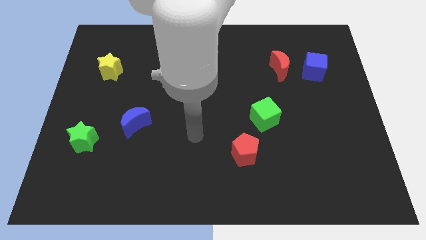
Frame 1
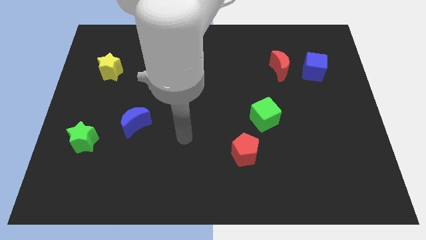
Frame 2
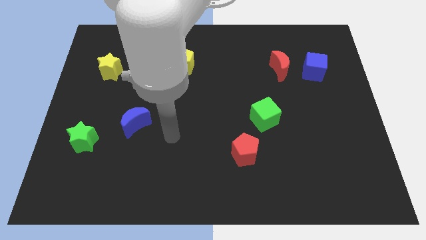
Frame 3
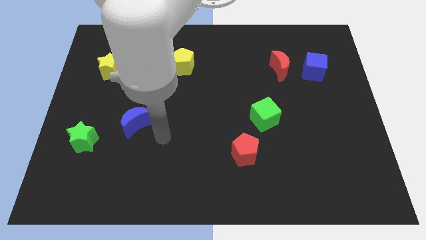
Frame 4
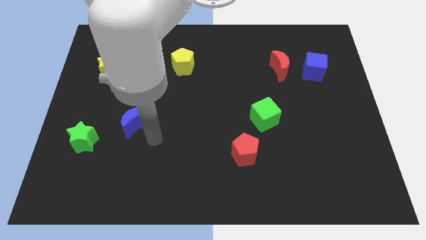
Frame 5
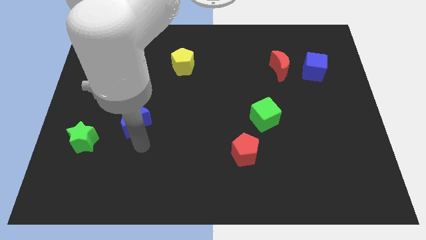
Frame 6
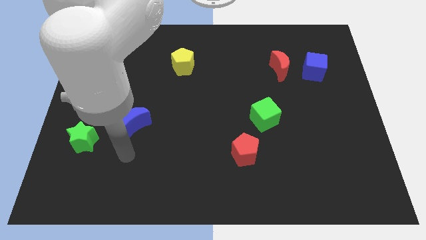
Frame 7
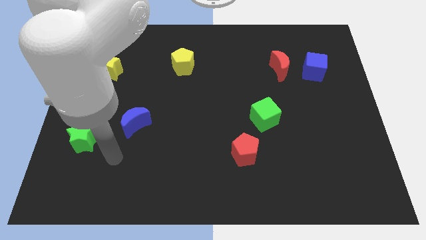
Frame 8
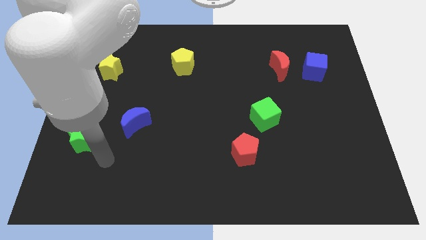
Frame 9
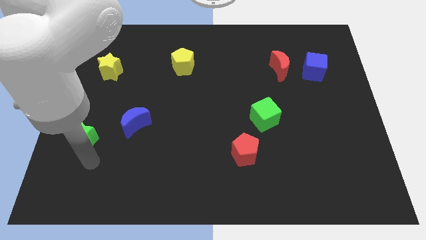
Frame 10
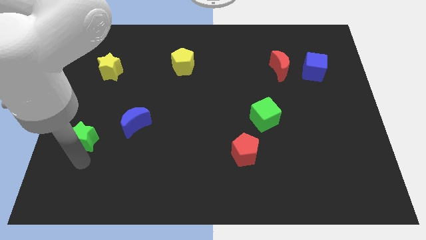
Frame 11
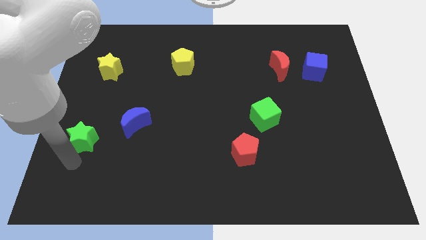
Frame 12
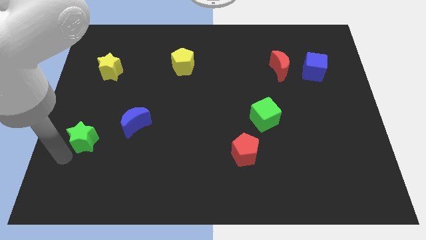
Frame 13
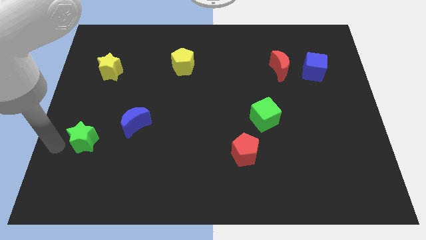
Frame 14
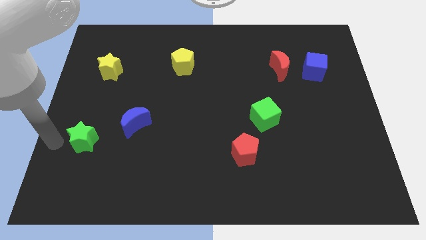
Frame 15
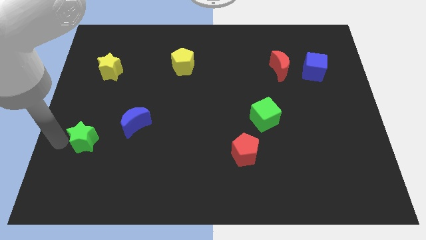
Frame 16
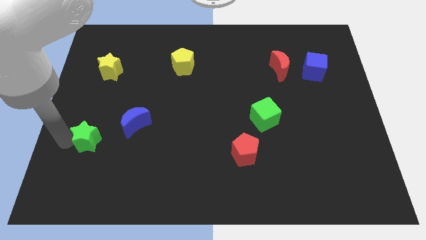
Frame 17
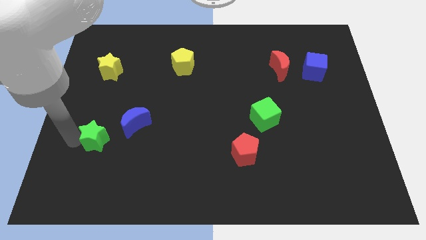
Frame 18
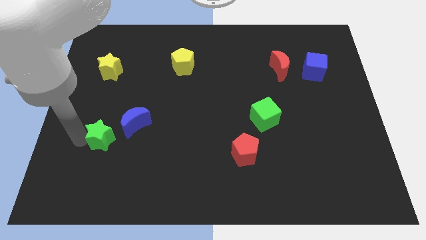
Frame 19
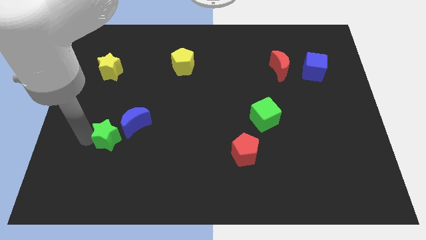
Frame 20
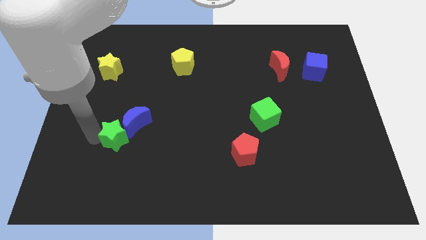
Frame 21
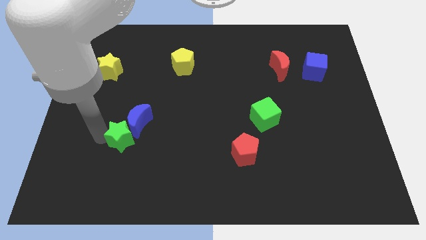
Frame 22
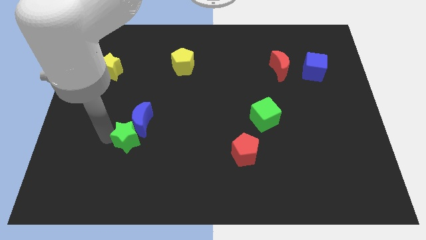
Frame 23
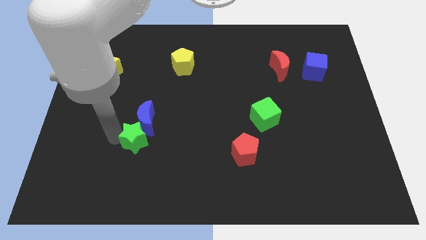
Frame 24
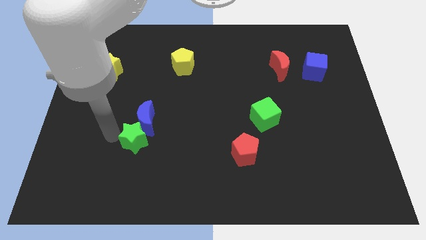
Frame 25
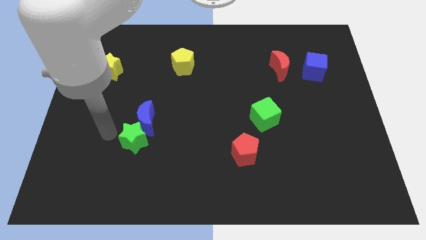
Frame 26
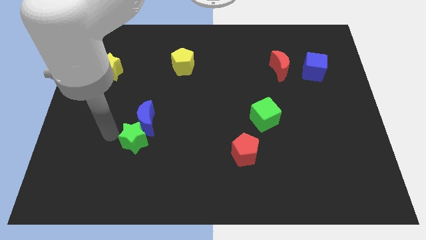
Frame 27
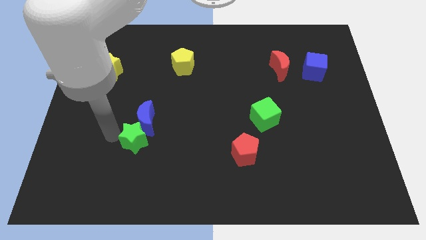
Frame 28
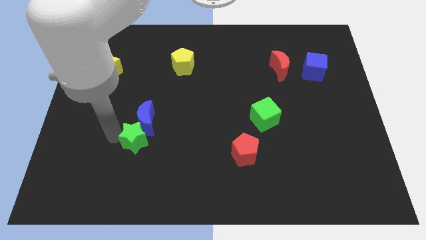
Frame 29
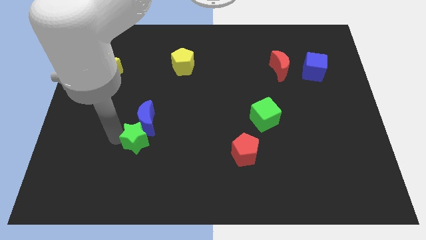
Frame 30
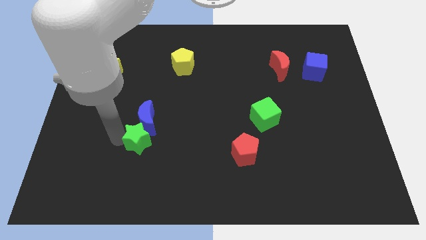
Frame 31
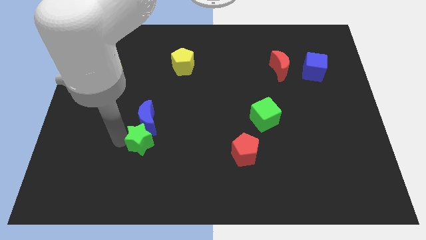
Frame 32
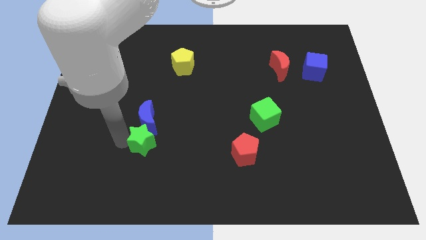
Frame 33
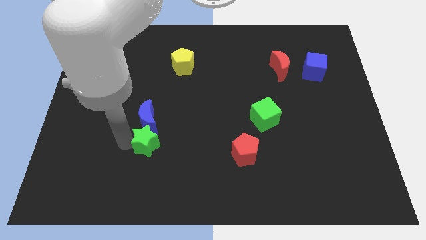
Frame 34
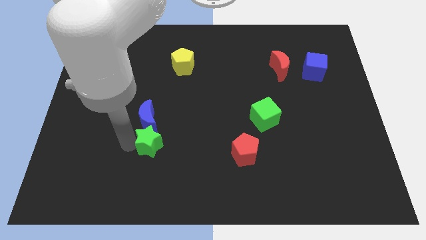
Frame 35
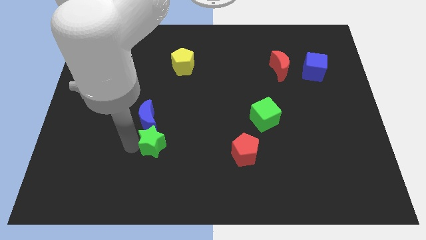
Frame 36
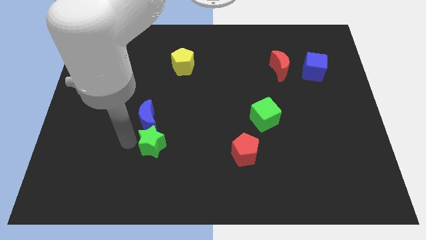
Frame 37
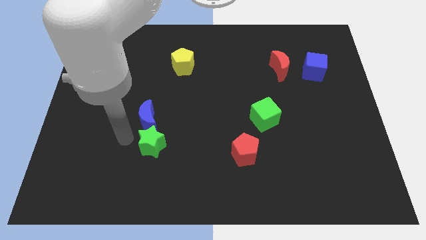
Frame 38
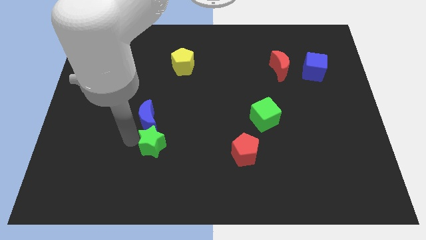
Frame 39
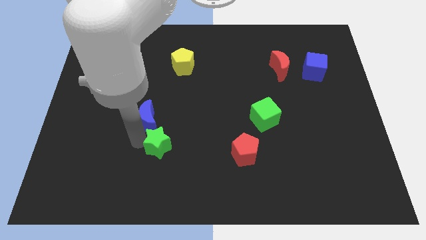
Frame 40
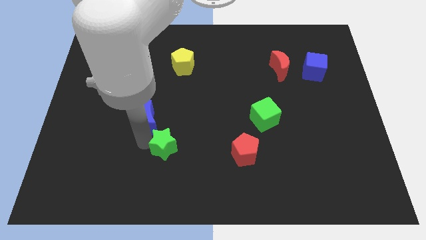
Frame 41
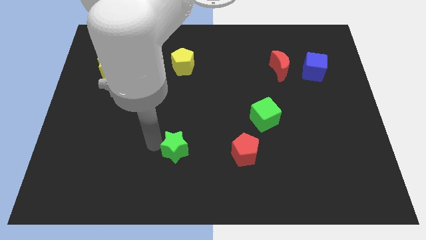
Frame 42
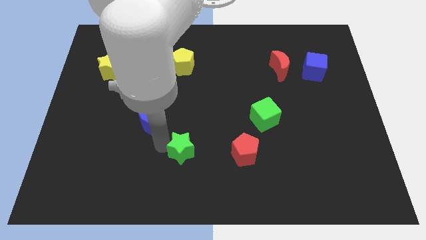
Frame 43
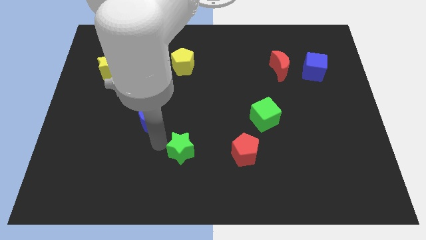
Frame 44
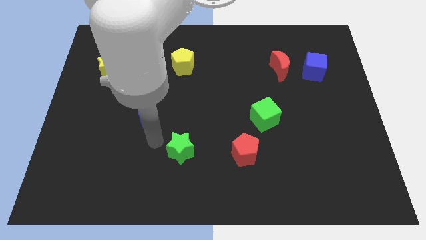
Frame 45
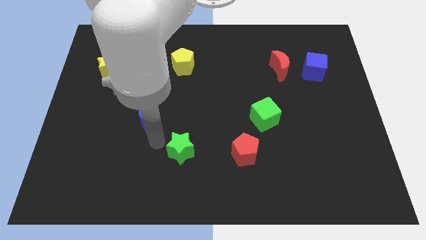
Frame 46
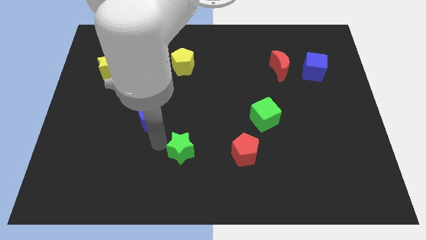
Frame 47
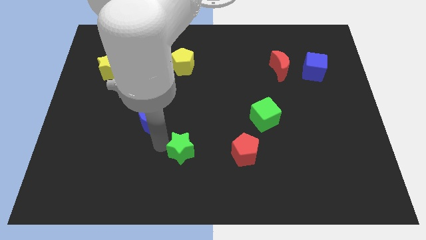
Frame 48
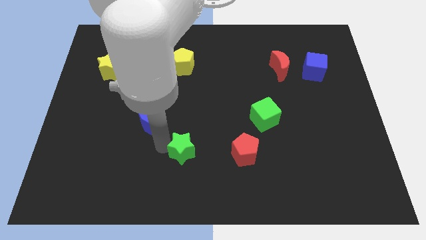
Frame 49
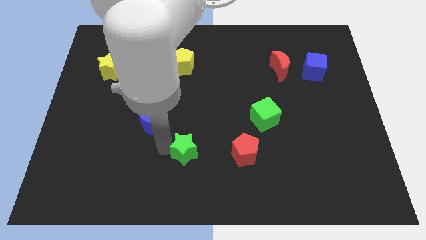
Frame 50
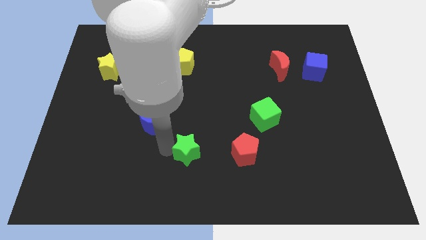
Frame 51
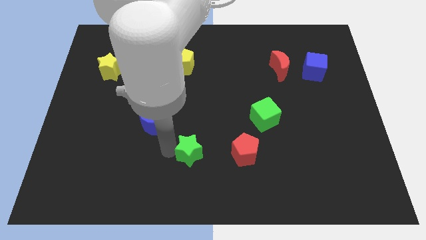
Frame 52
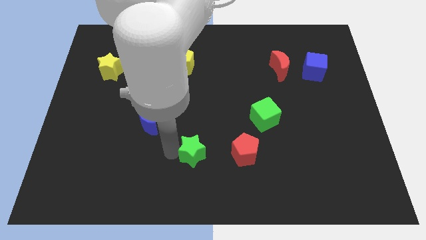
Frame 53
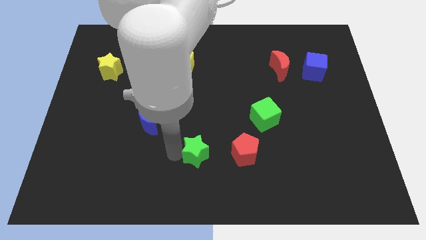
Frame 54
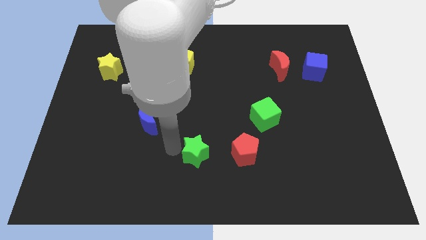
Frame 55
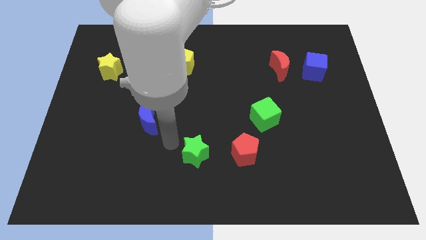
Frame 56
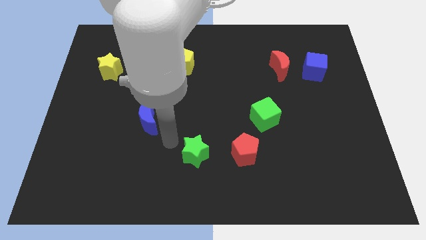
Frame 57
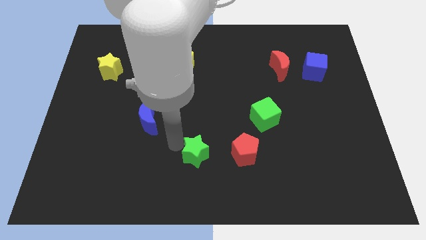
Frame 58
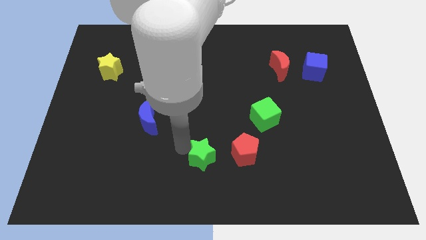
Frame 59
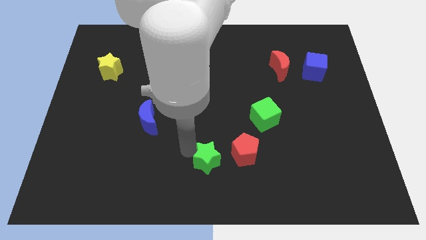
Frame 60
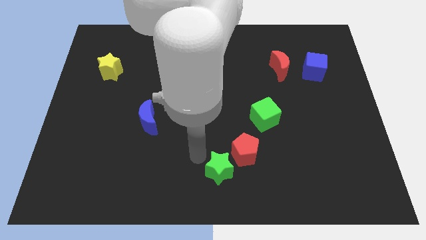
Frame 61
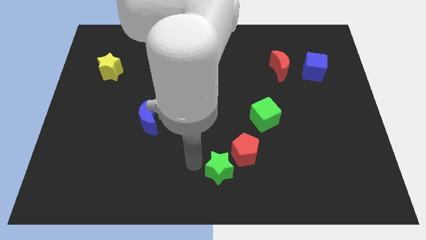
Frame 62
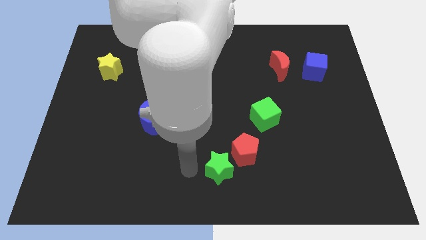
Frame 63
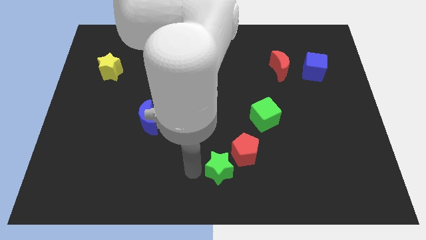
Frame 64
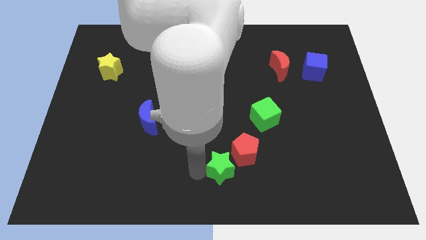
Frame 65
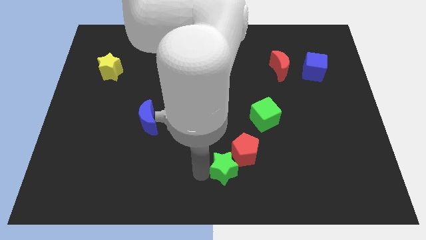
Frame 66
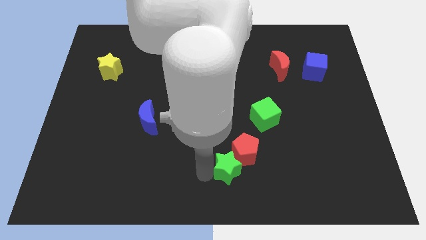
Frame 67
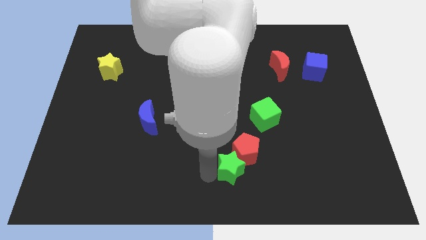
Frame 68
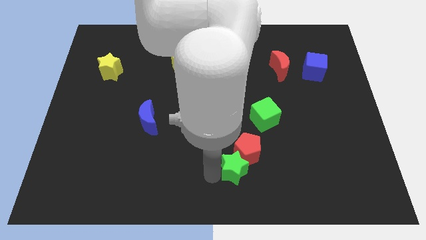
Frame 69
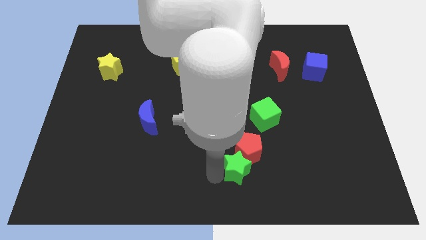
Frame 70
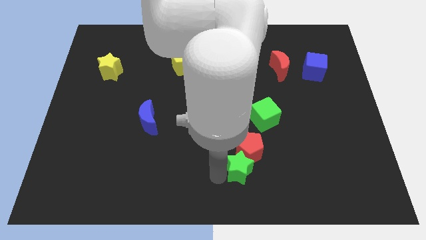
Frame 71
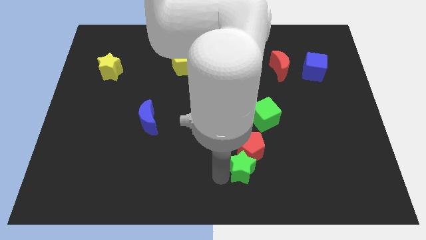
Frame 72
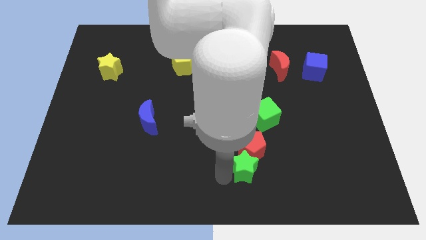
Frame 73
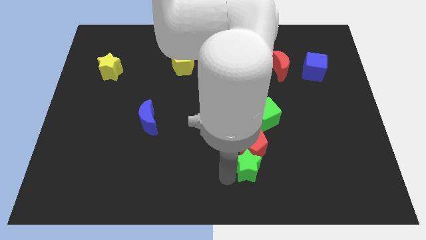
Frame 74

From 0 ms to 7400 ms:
push the green star to the bottom of the green cube
